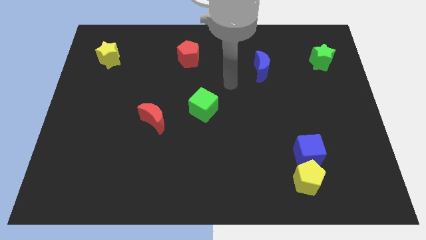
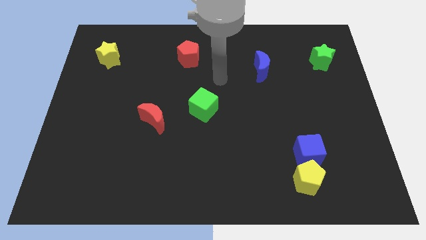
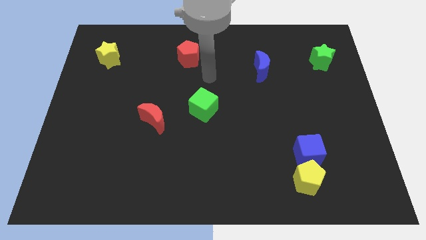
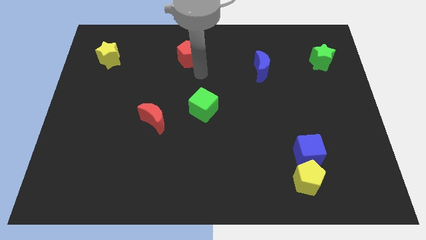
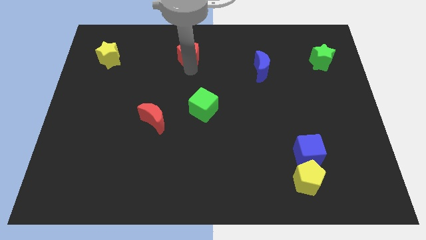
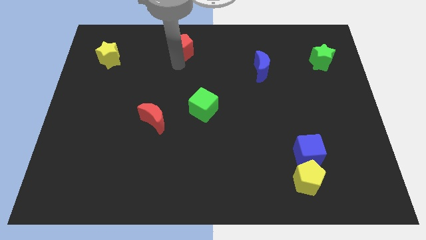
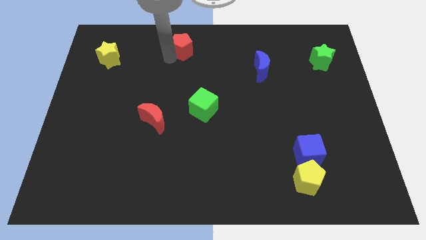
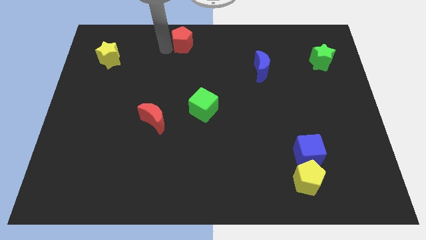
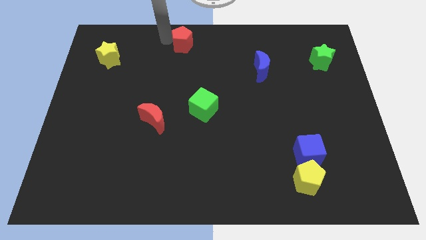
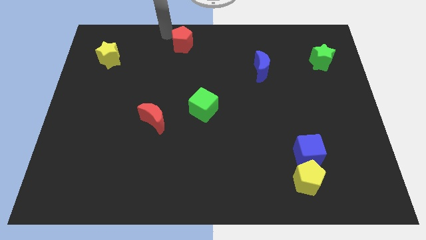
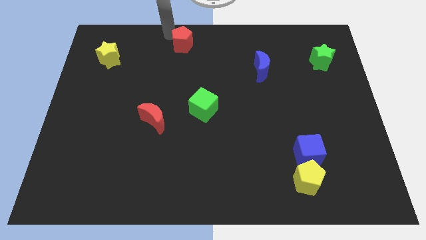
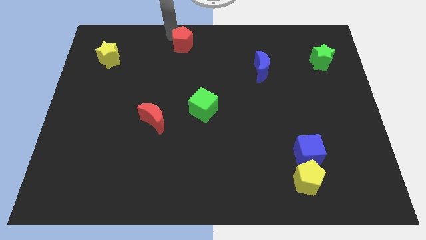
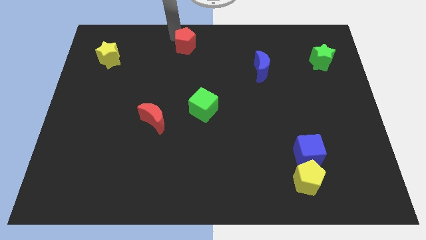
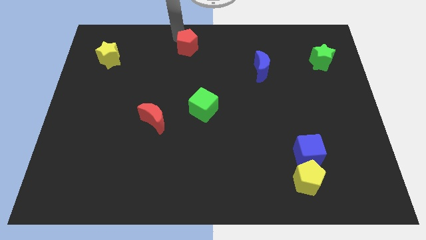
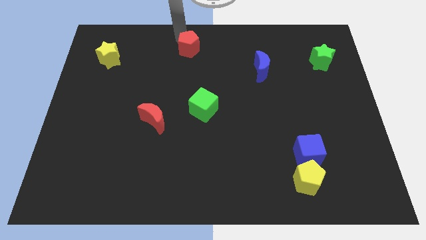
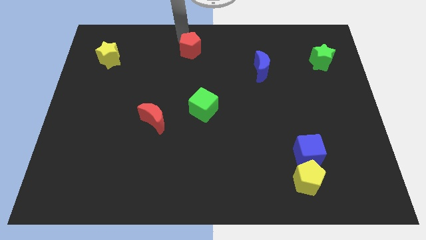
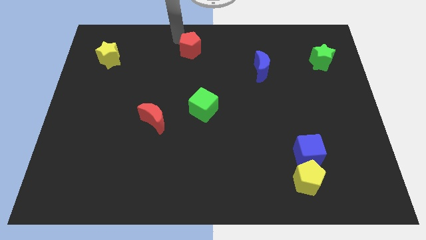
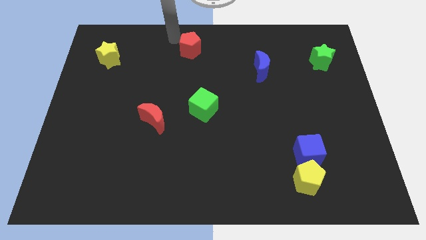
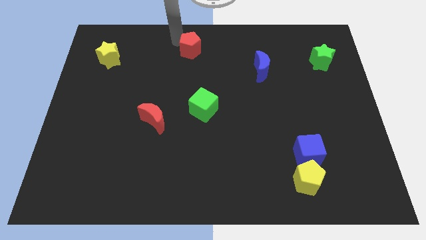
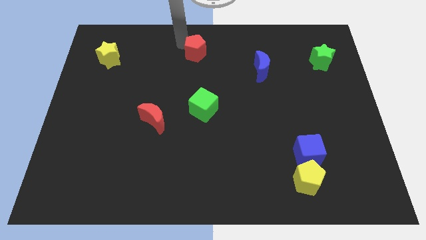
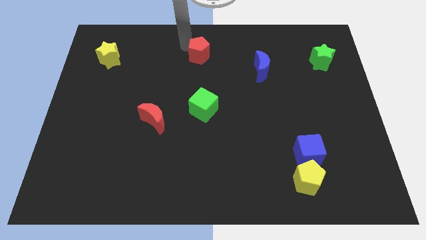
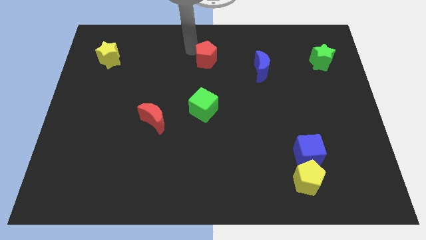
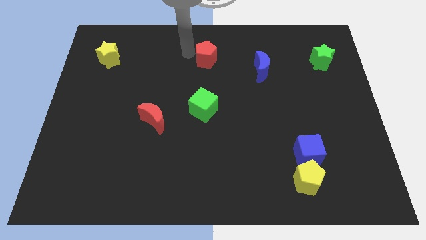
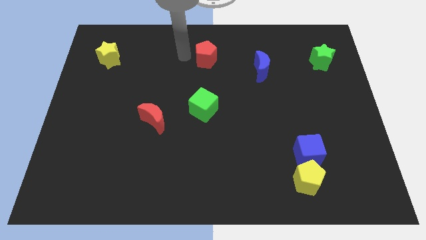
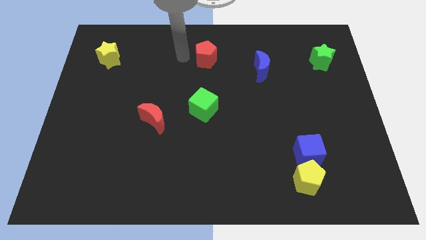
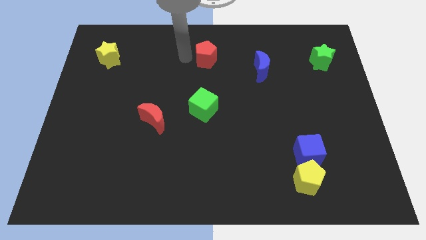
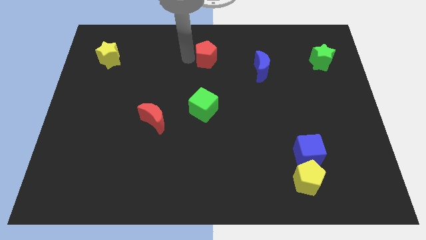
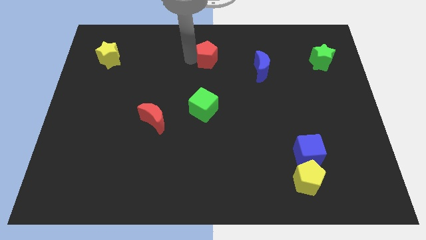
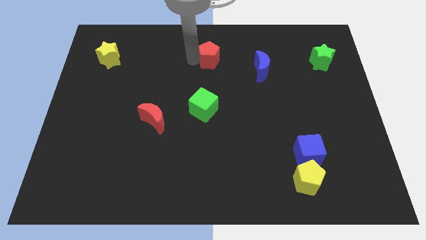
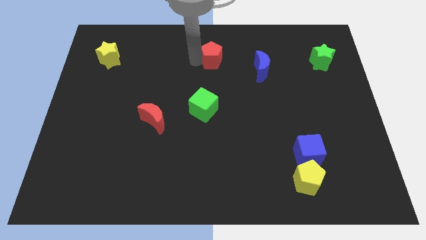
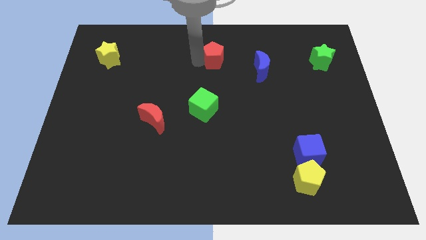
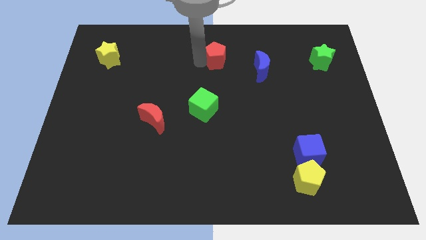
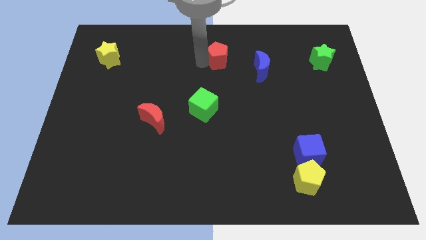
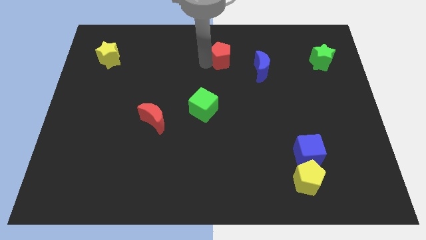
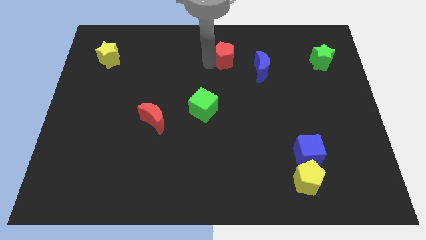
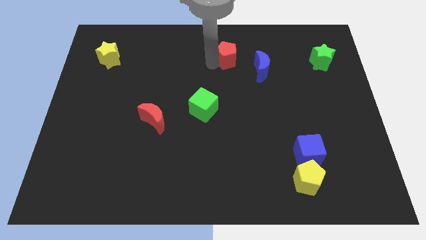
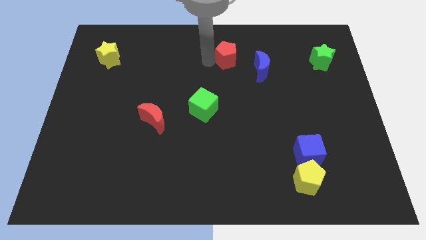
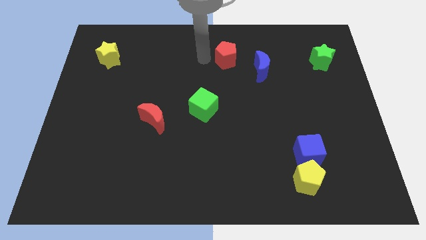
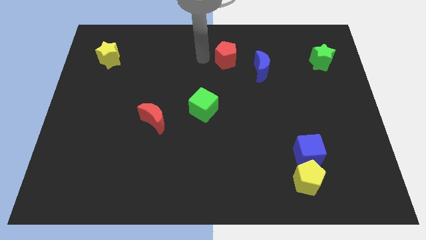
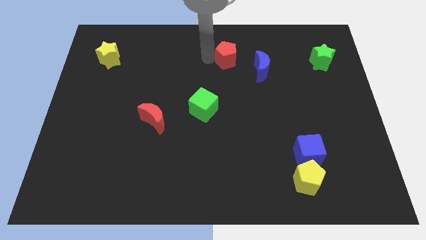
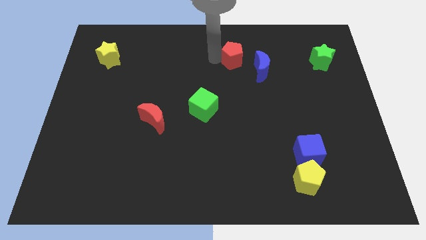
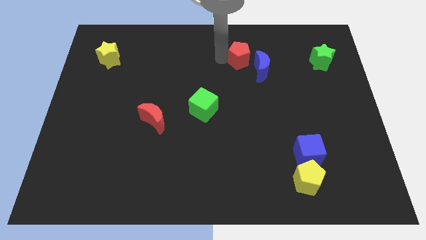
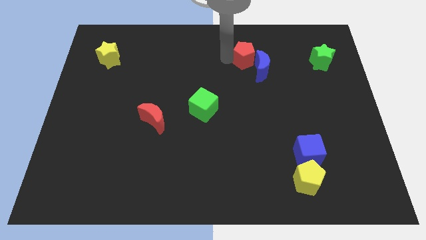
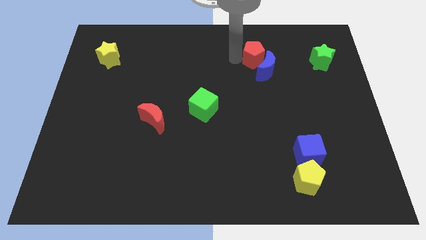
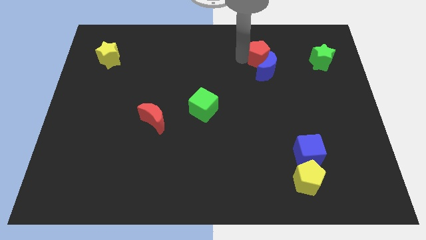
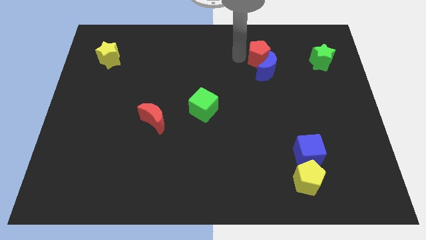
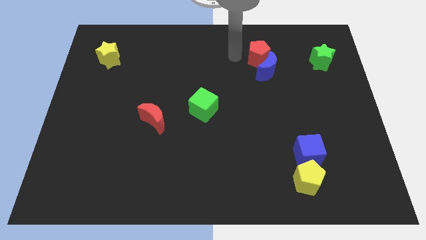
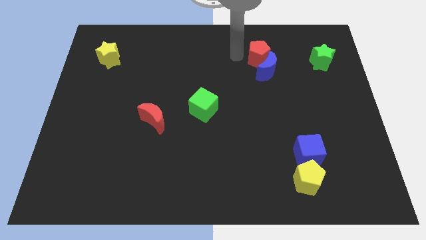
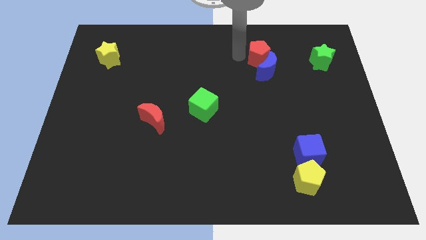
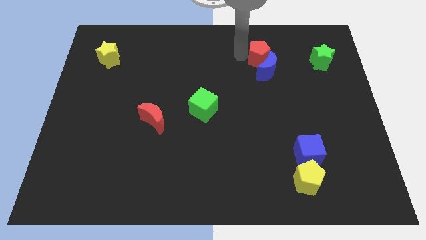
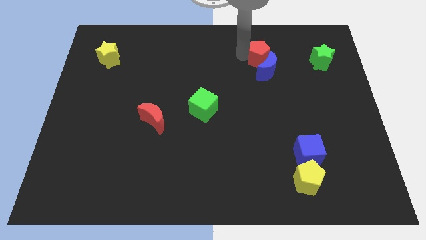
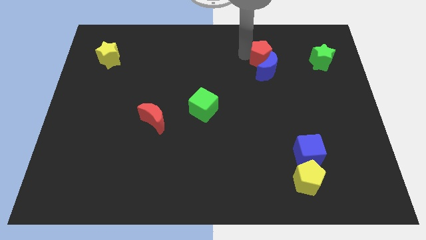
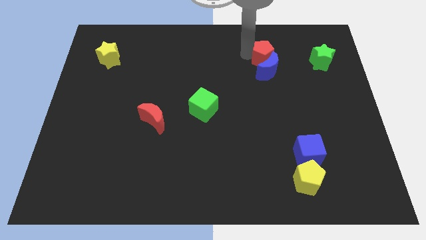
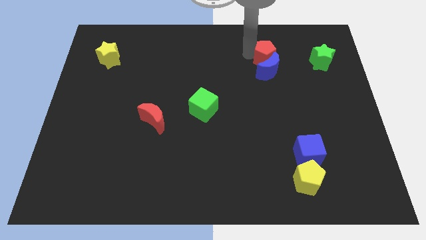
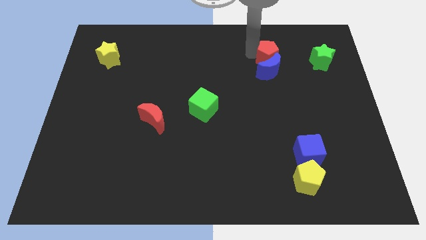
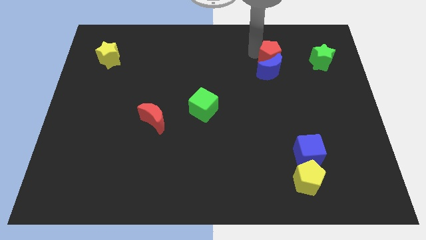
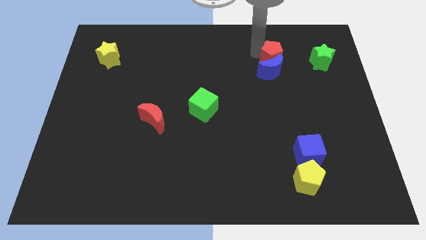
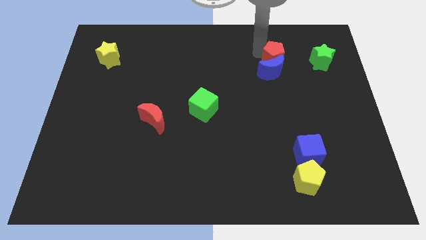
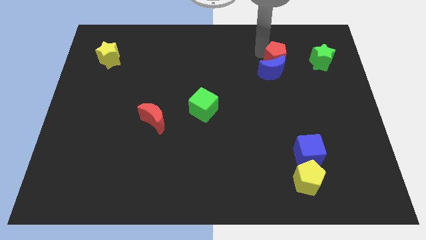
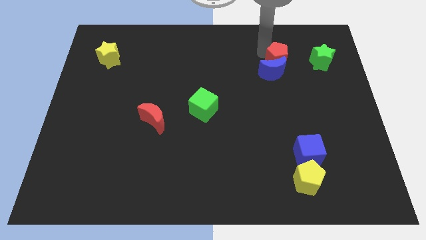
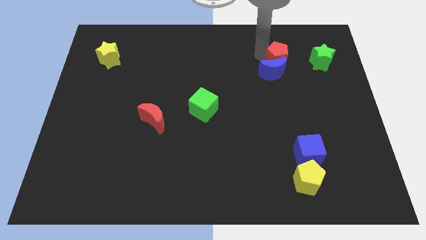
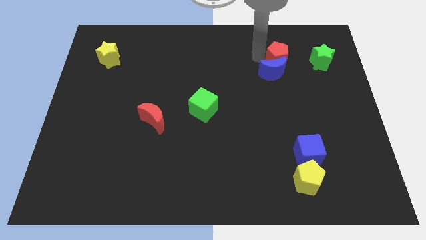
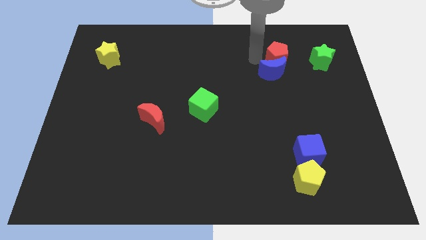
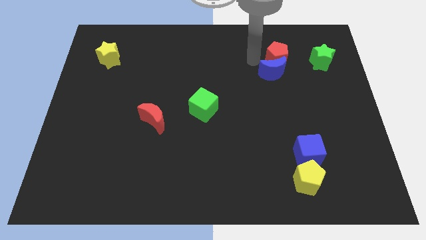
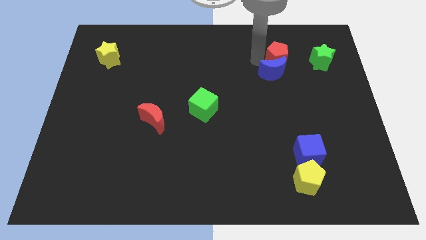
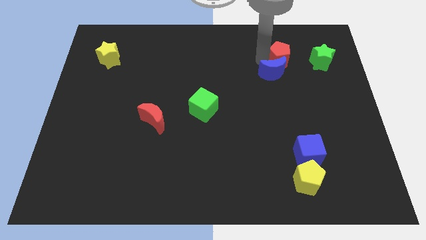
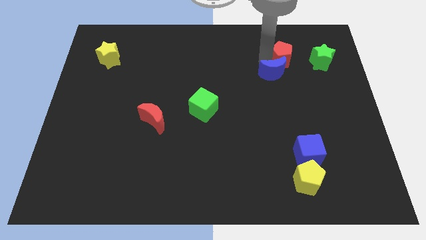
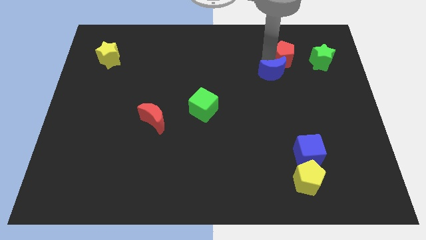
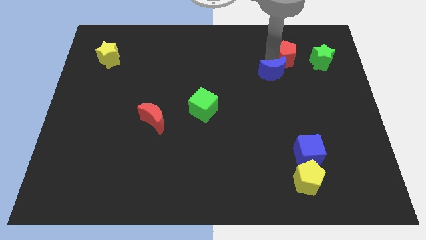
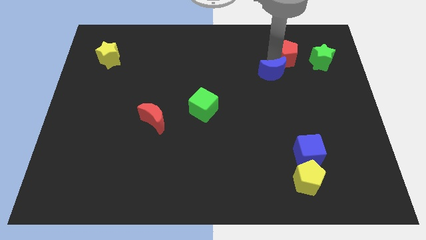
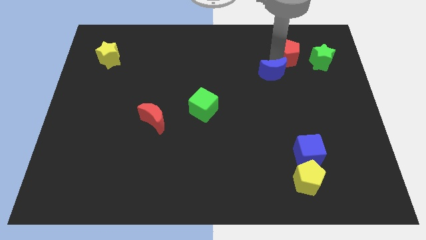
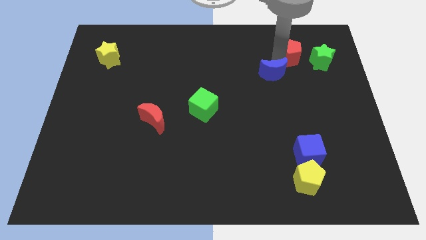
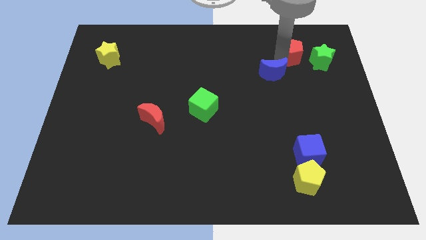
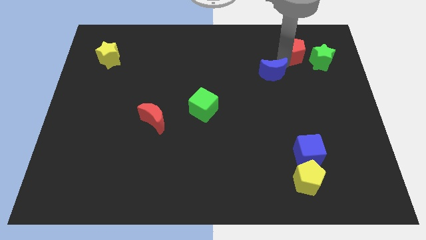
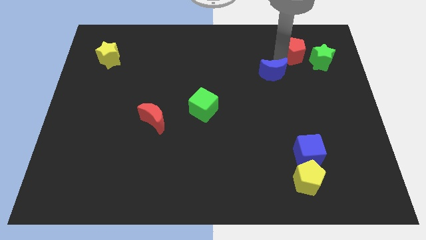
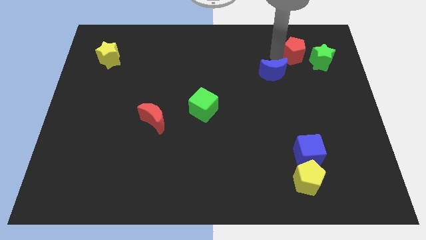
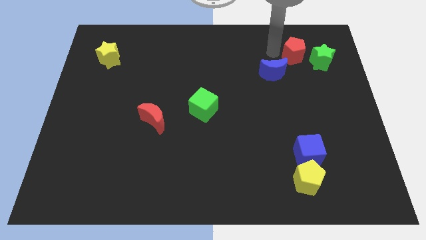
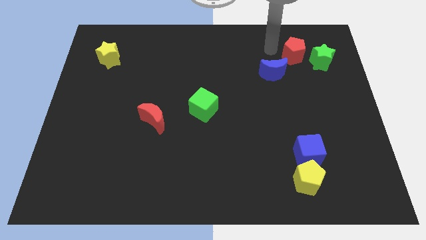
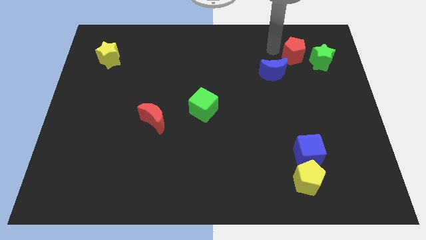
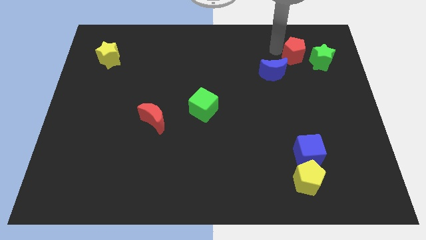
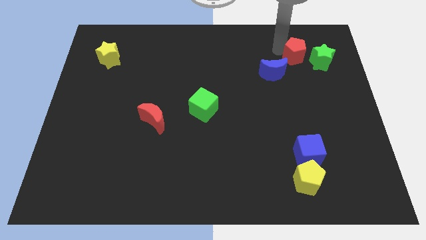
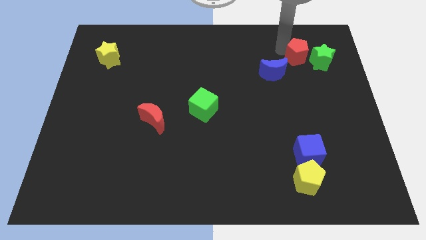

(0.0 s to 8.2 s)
push the red pentagon towards the green star
